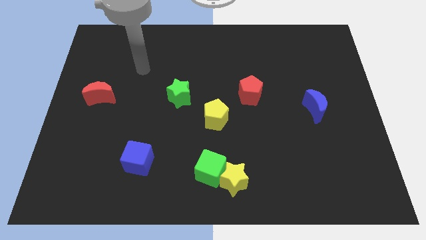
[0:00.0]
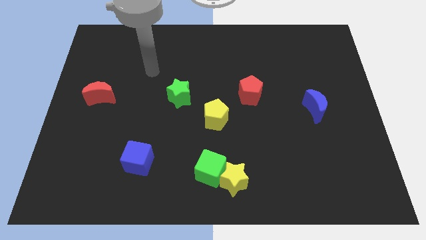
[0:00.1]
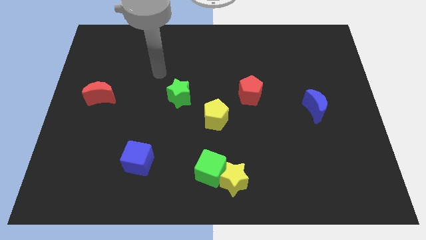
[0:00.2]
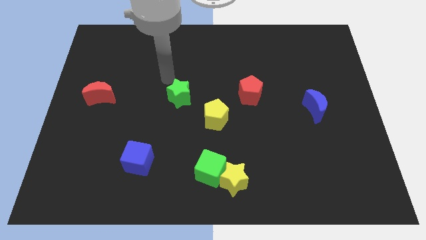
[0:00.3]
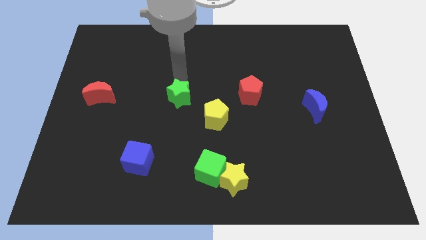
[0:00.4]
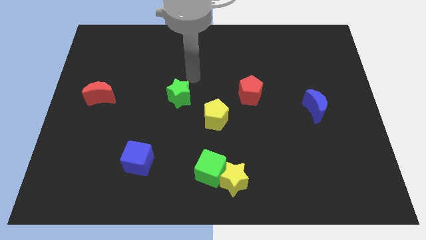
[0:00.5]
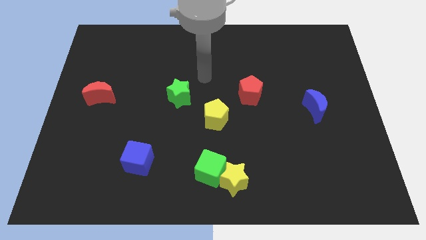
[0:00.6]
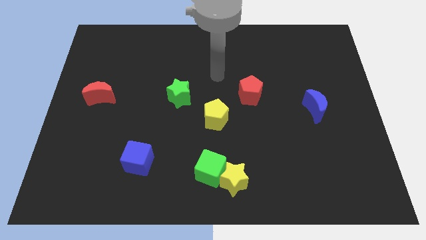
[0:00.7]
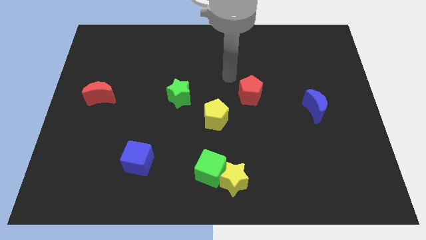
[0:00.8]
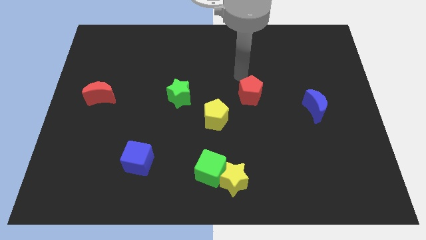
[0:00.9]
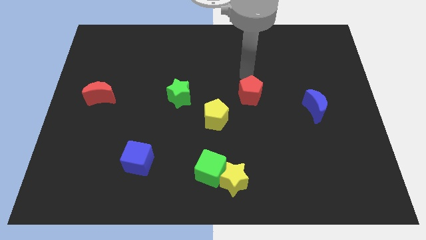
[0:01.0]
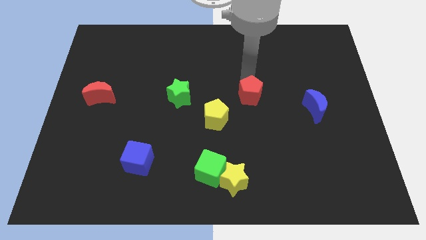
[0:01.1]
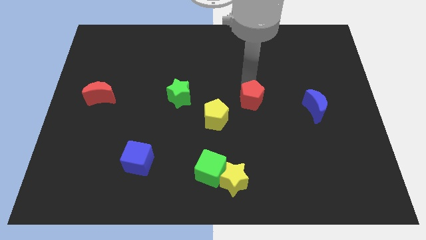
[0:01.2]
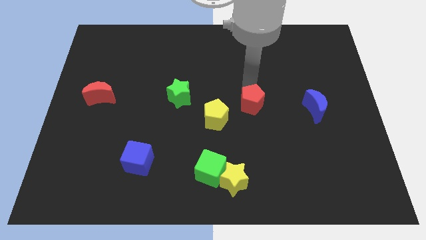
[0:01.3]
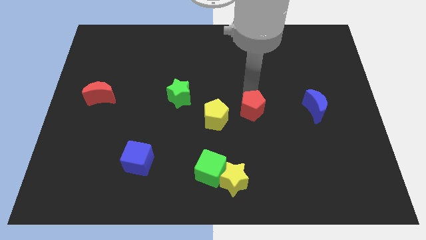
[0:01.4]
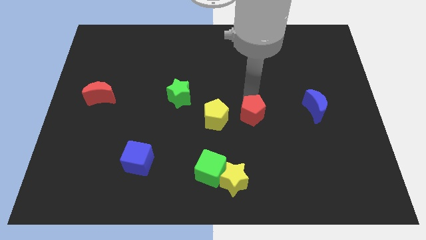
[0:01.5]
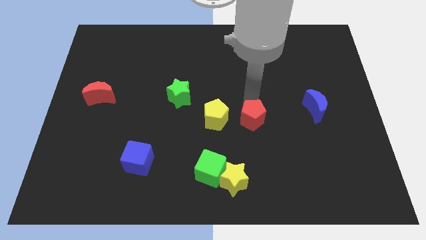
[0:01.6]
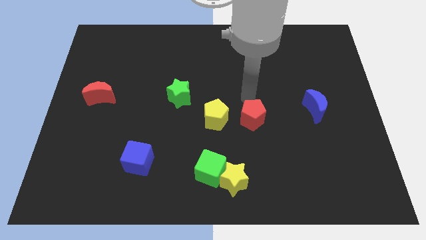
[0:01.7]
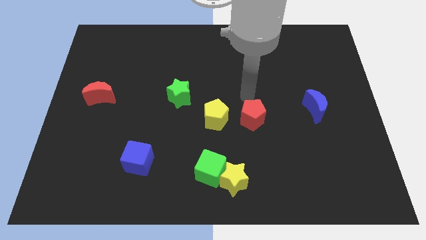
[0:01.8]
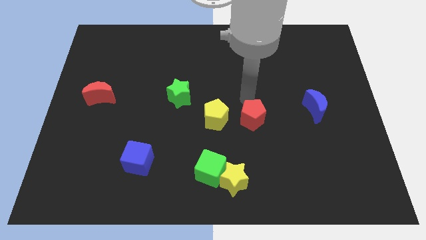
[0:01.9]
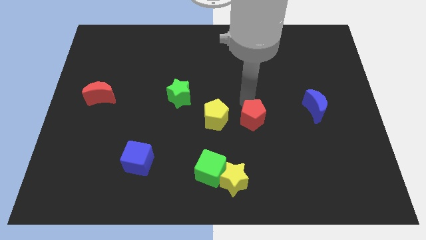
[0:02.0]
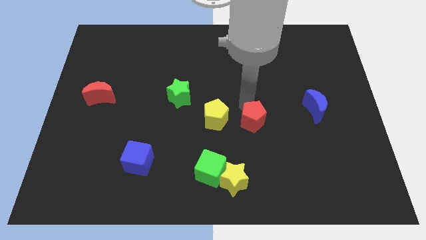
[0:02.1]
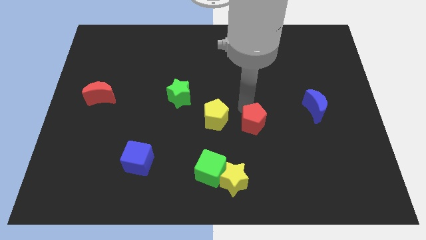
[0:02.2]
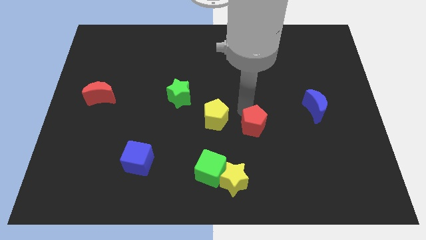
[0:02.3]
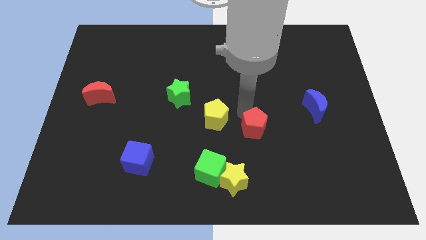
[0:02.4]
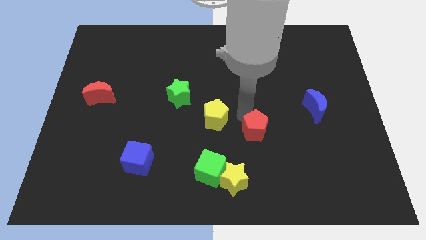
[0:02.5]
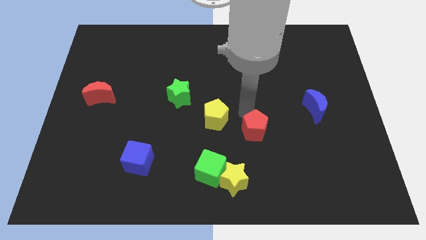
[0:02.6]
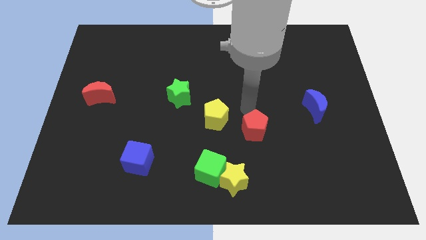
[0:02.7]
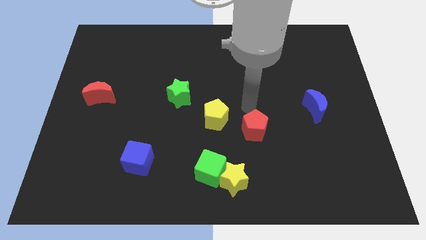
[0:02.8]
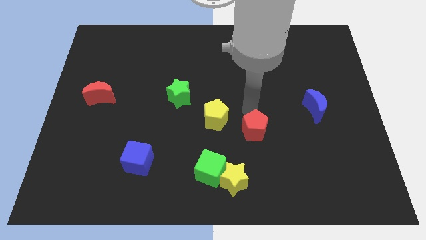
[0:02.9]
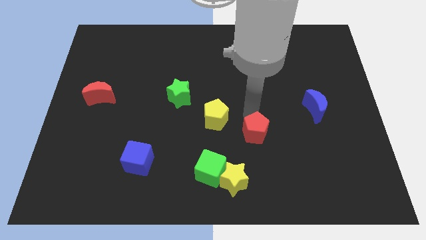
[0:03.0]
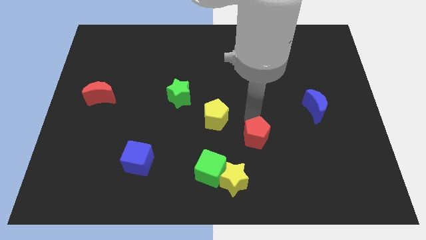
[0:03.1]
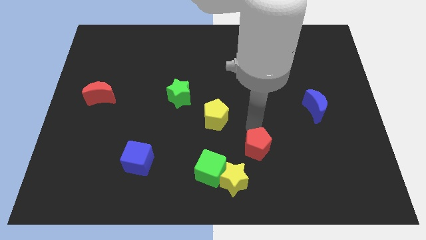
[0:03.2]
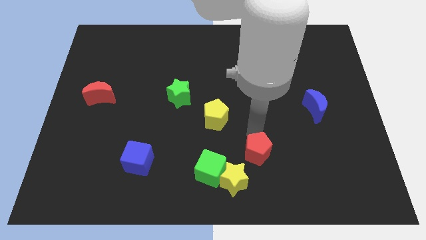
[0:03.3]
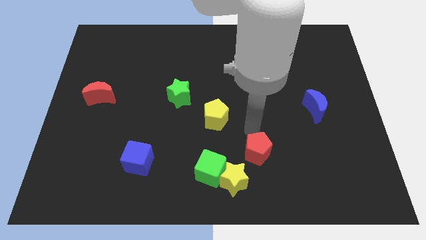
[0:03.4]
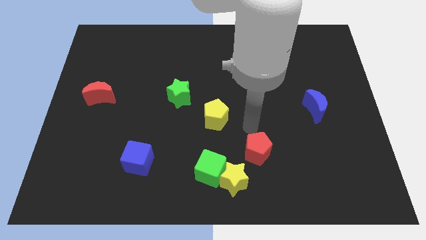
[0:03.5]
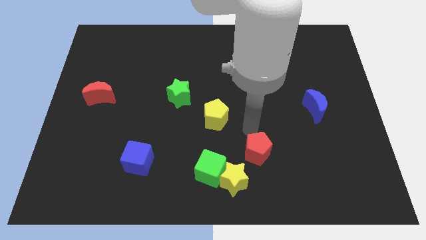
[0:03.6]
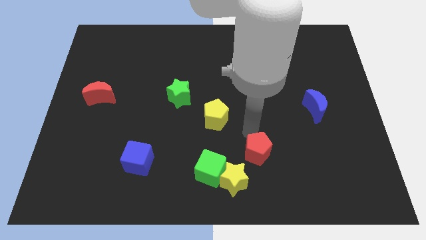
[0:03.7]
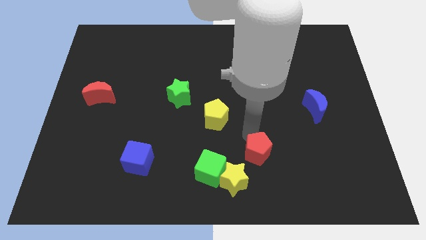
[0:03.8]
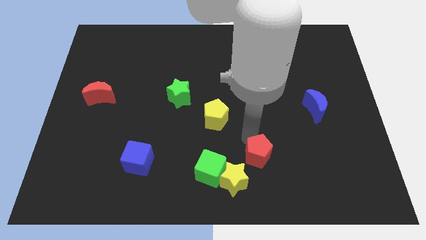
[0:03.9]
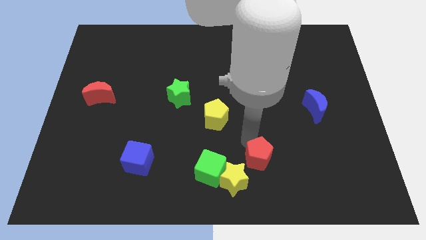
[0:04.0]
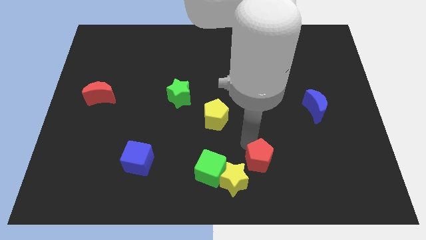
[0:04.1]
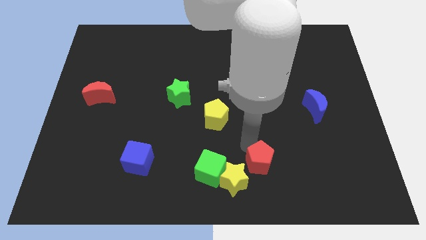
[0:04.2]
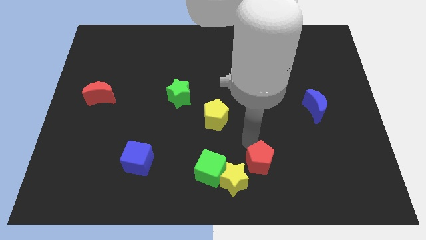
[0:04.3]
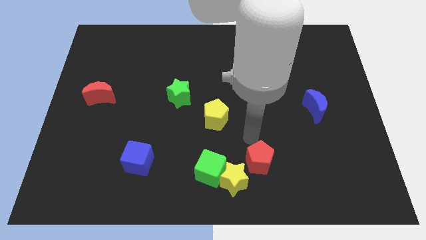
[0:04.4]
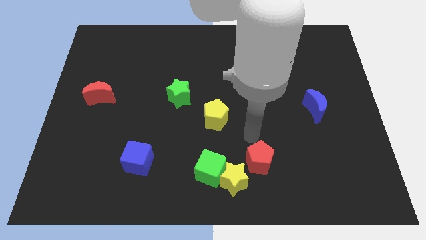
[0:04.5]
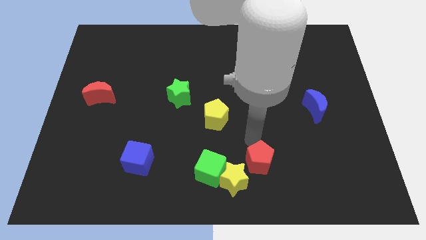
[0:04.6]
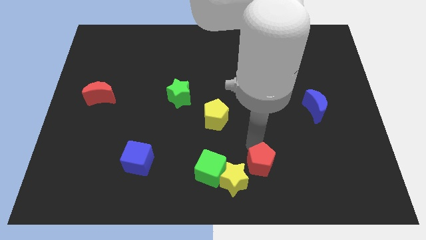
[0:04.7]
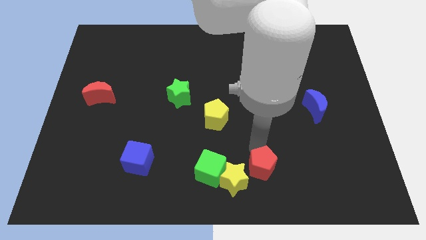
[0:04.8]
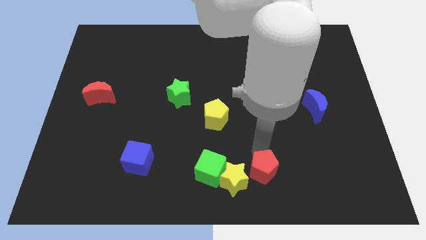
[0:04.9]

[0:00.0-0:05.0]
move the red pentagon to the bottom

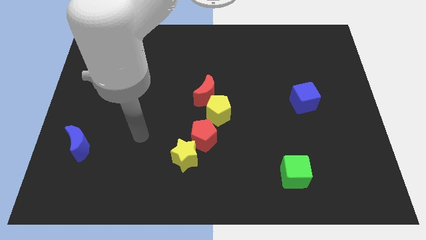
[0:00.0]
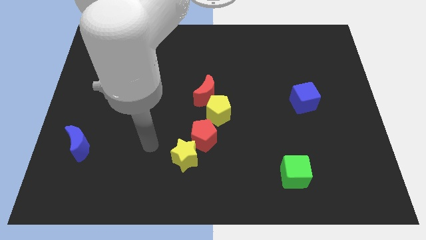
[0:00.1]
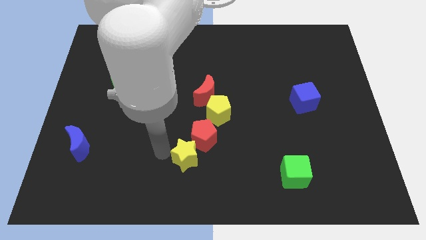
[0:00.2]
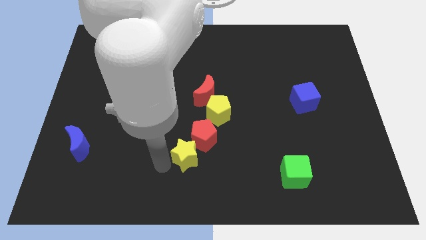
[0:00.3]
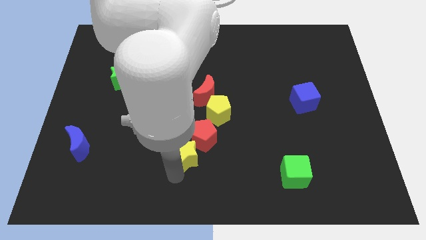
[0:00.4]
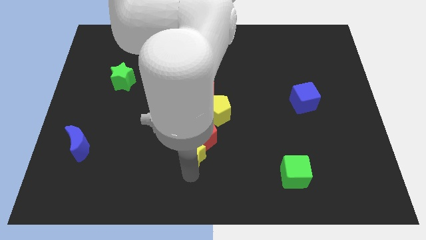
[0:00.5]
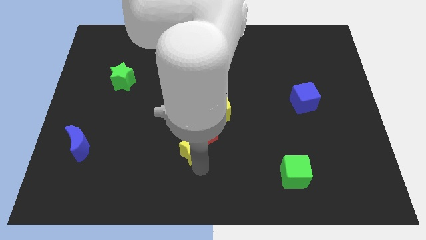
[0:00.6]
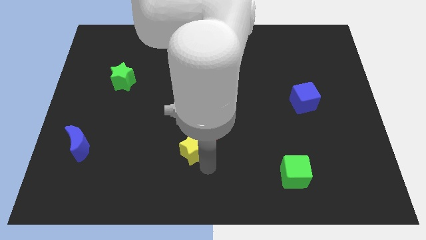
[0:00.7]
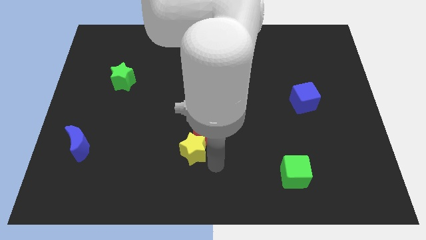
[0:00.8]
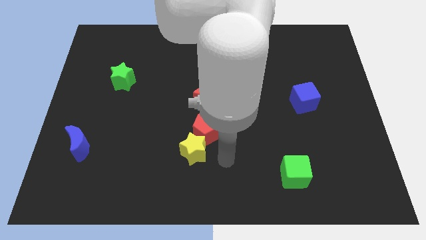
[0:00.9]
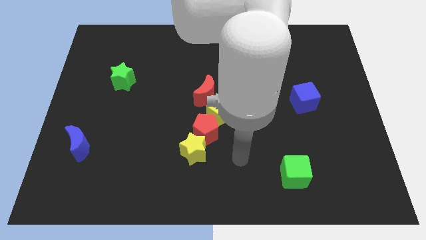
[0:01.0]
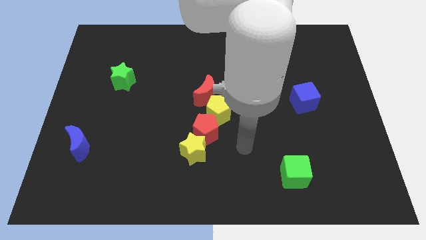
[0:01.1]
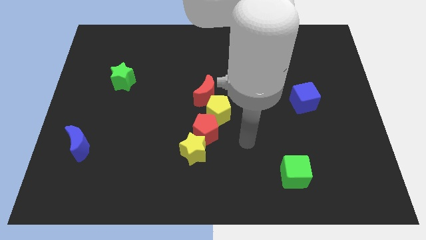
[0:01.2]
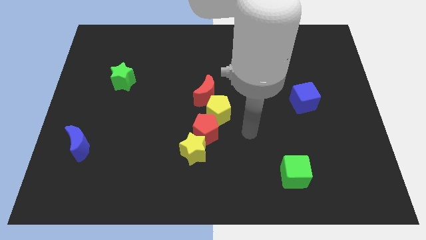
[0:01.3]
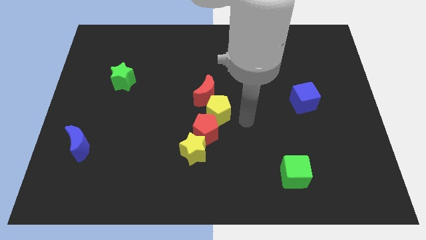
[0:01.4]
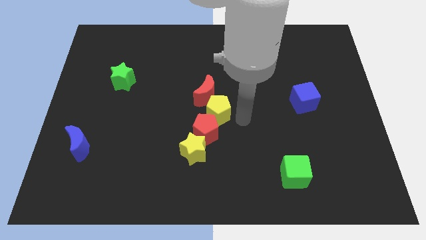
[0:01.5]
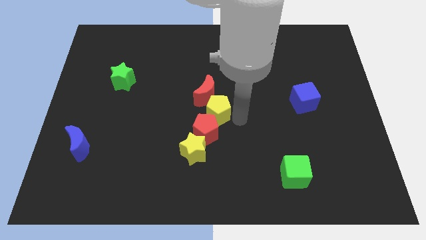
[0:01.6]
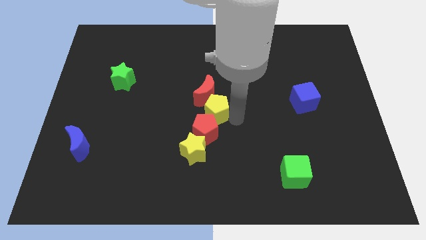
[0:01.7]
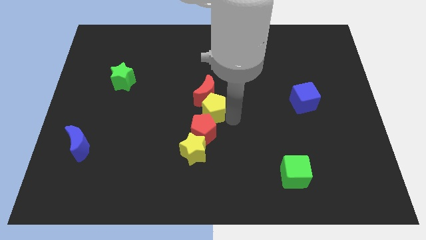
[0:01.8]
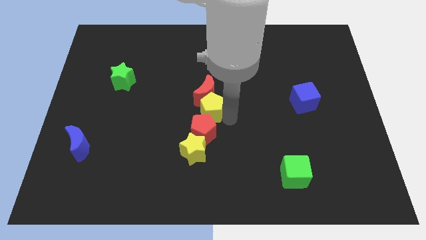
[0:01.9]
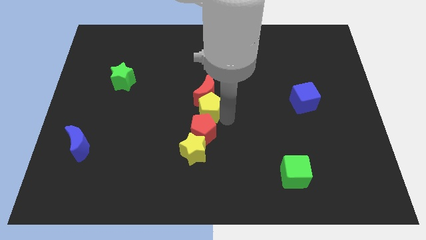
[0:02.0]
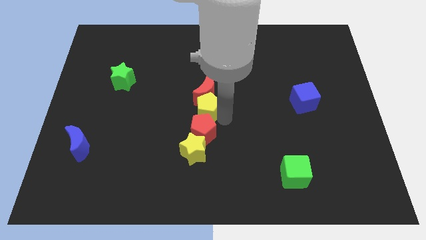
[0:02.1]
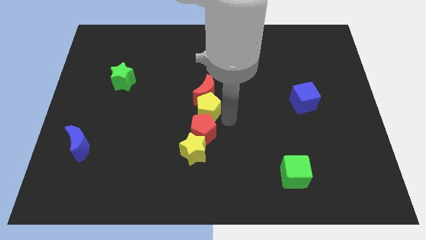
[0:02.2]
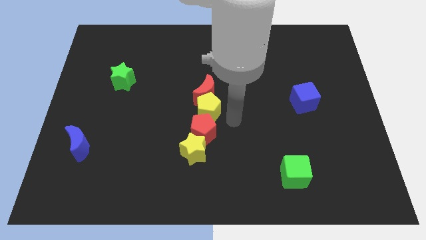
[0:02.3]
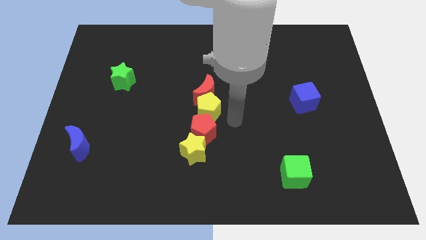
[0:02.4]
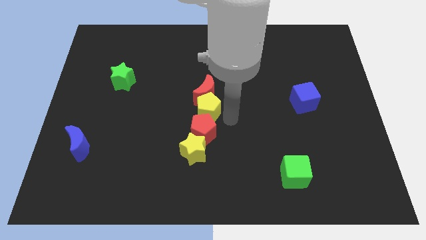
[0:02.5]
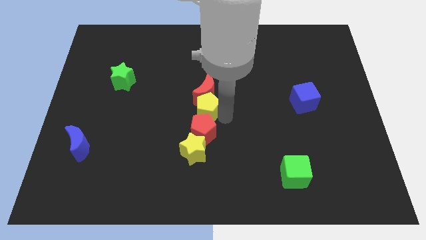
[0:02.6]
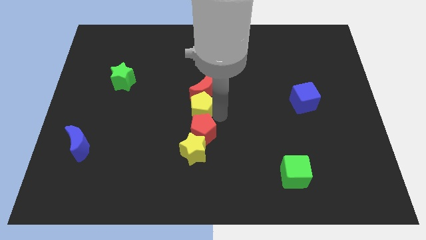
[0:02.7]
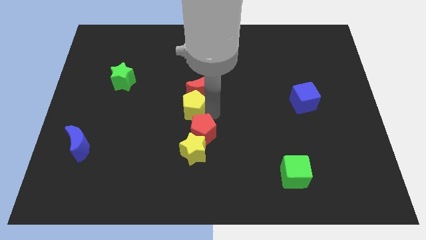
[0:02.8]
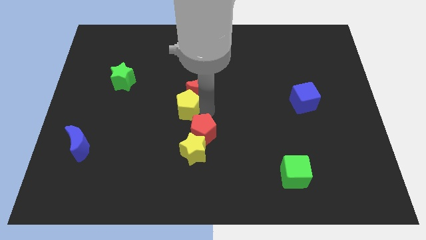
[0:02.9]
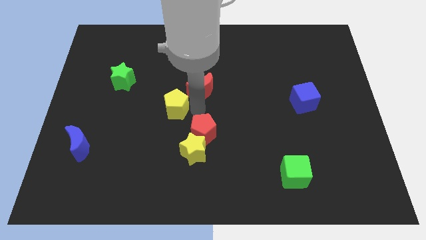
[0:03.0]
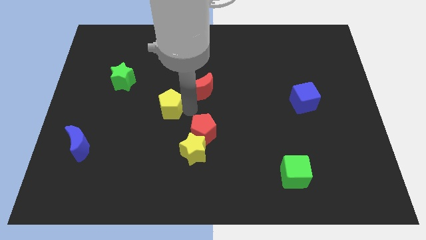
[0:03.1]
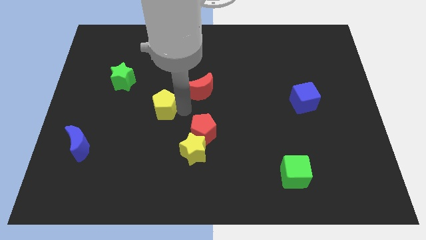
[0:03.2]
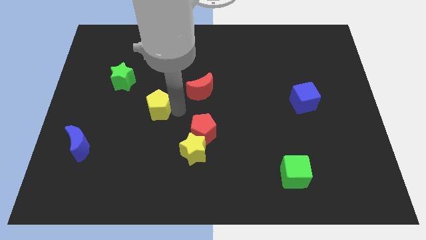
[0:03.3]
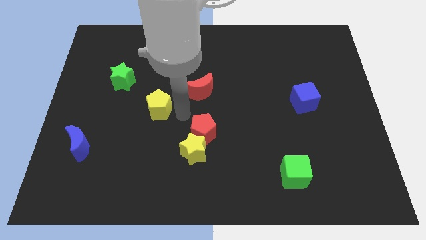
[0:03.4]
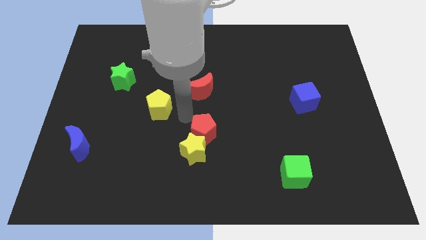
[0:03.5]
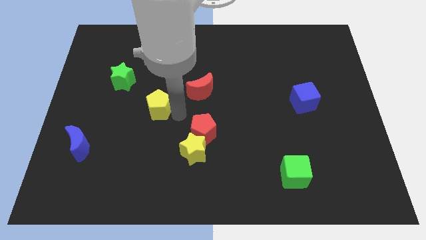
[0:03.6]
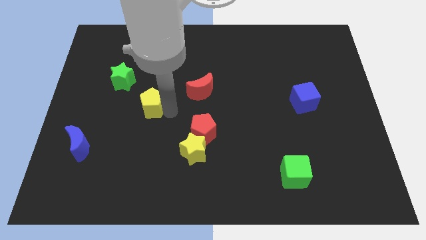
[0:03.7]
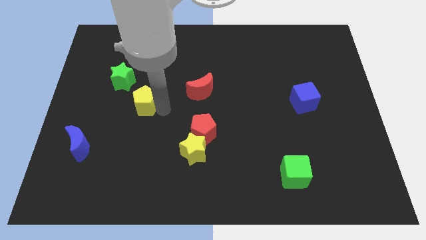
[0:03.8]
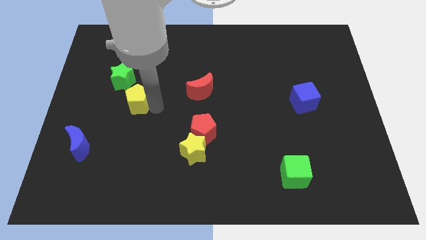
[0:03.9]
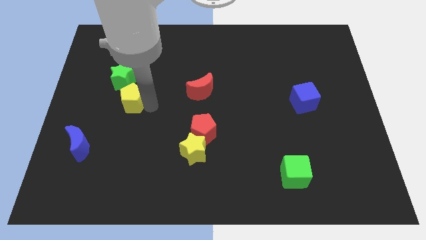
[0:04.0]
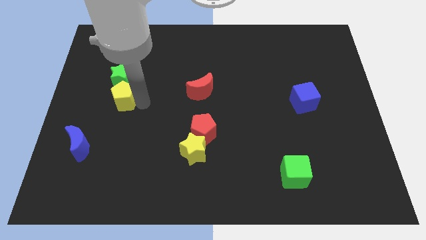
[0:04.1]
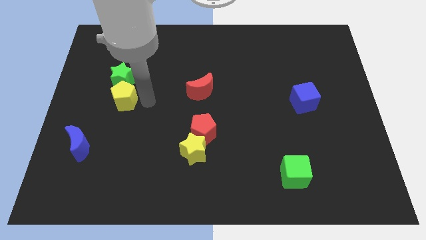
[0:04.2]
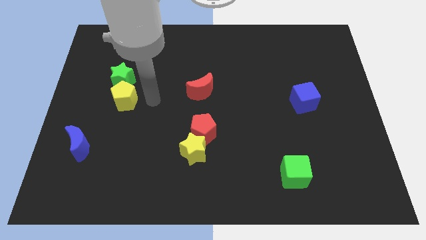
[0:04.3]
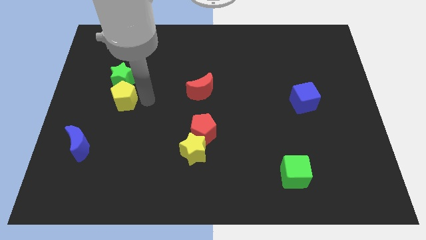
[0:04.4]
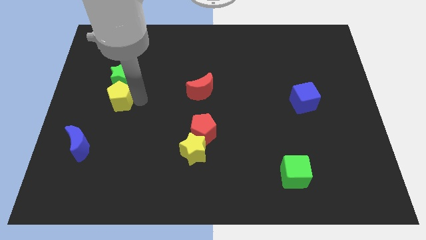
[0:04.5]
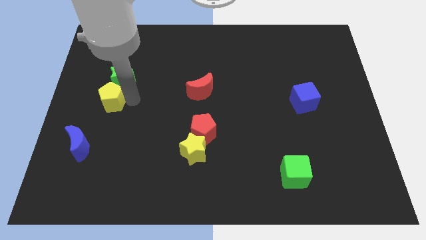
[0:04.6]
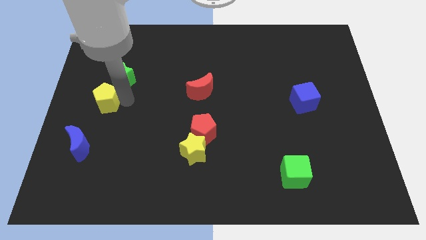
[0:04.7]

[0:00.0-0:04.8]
push the yellow pentagon to the center left
